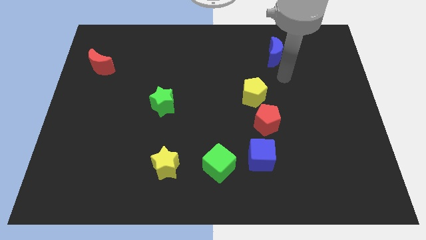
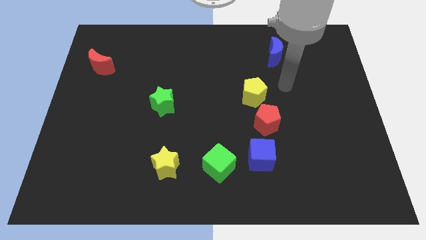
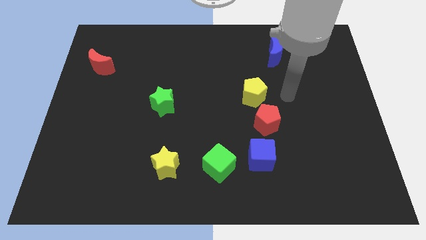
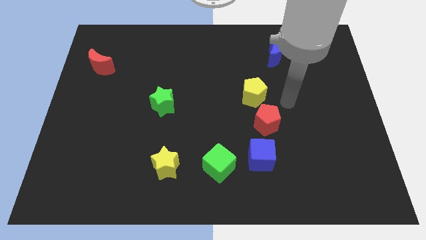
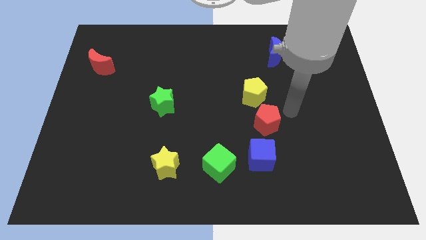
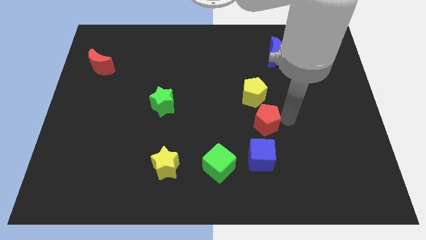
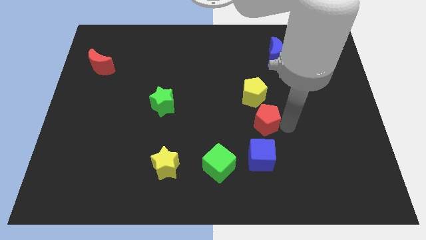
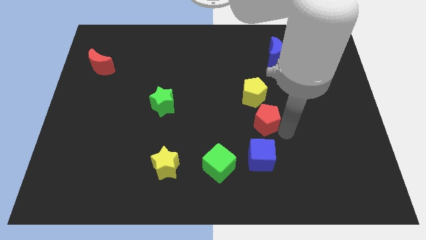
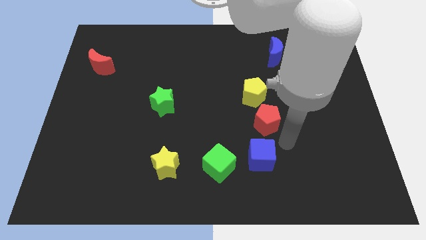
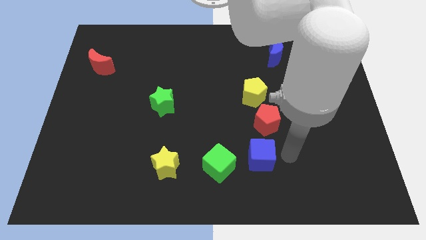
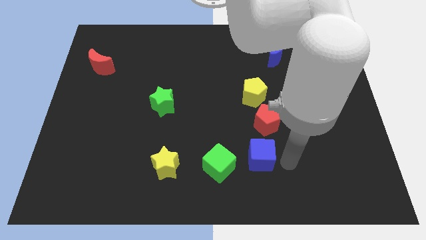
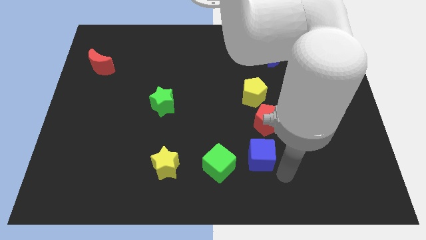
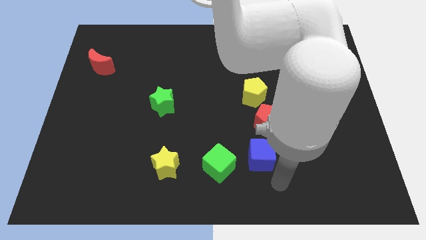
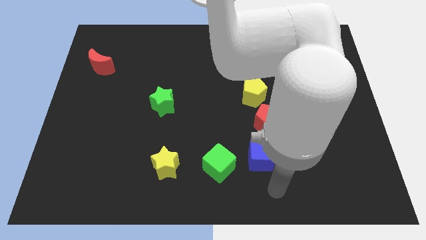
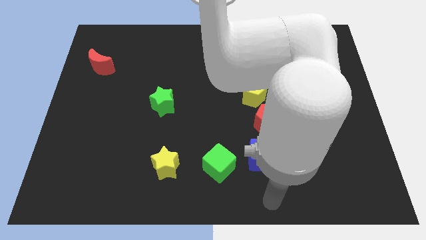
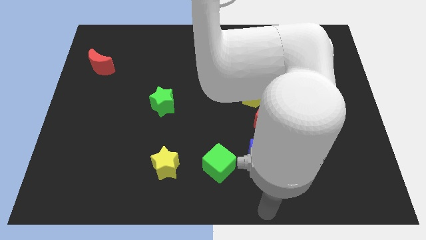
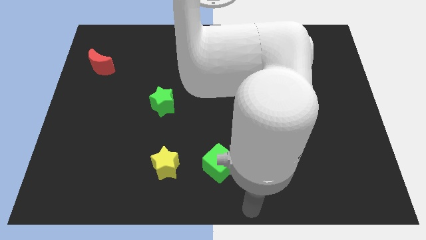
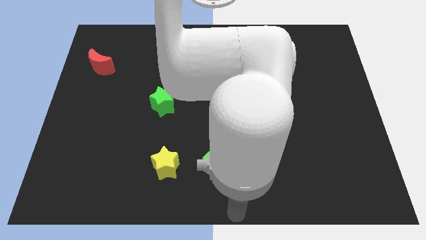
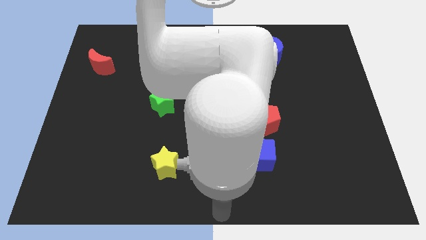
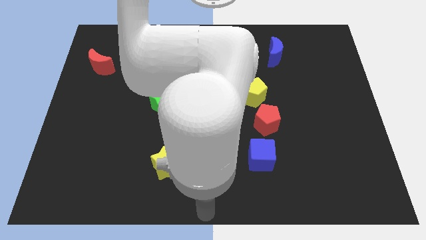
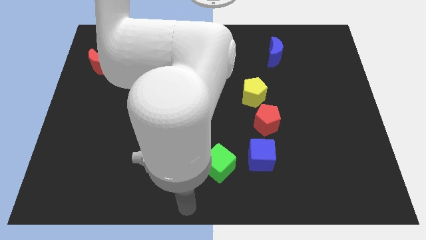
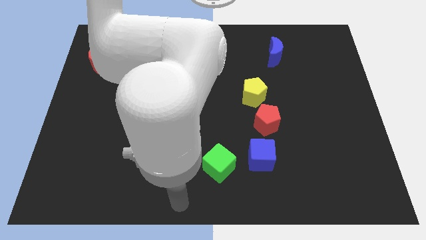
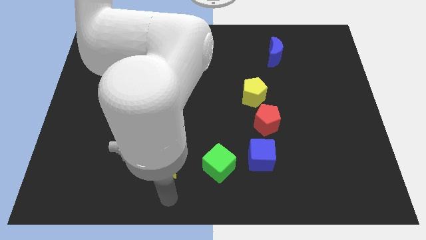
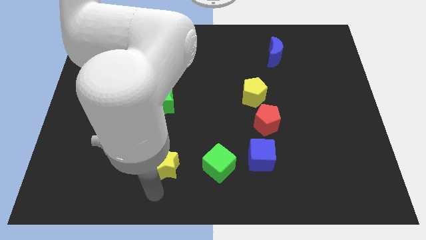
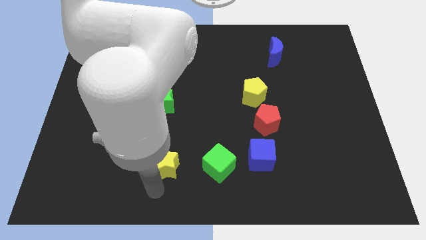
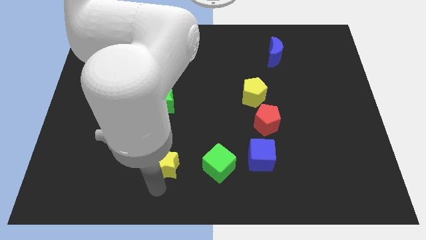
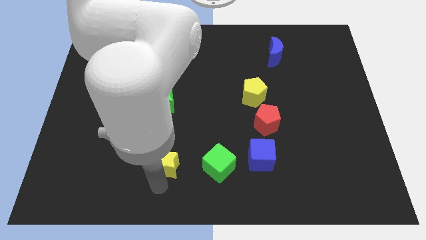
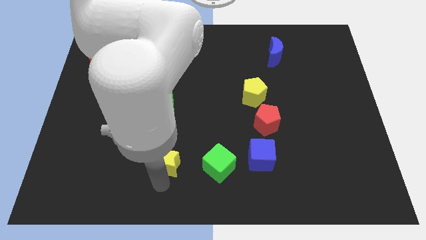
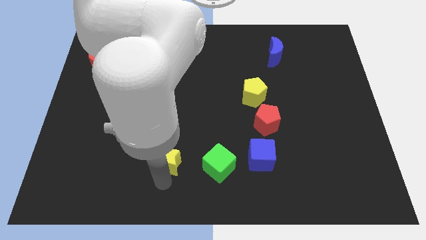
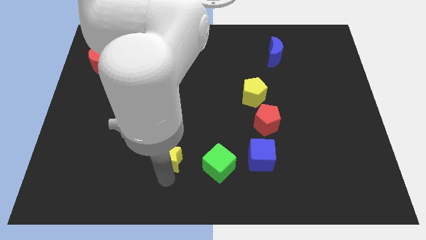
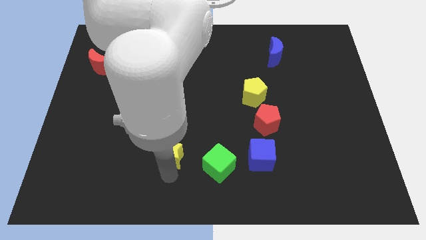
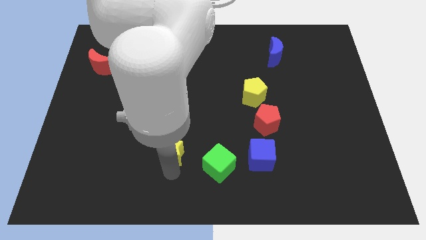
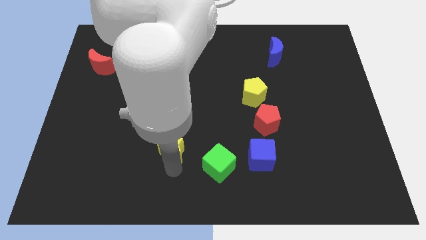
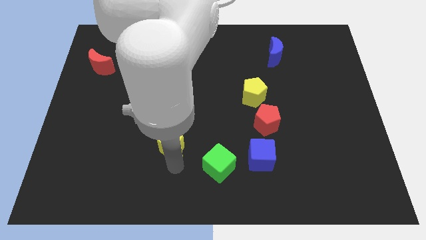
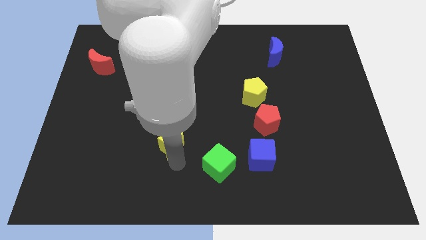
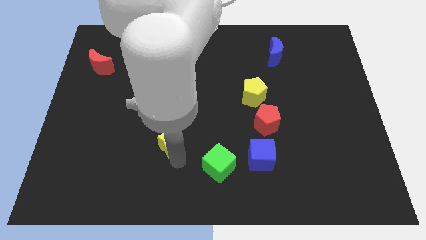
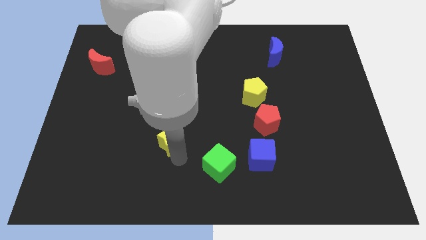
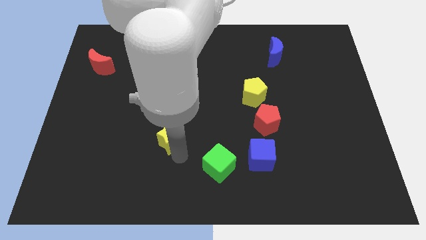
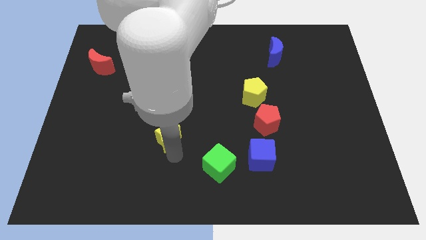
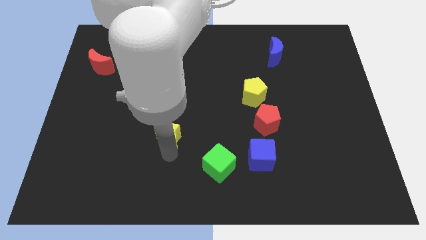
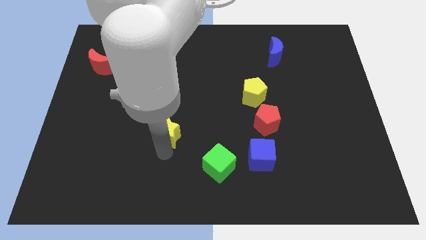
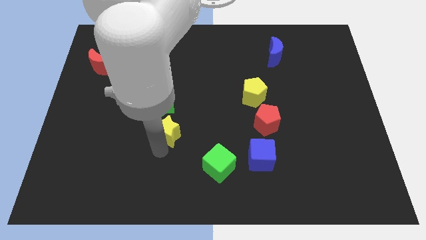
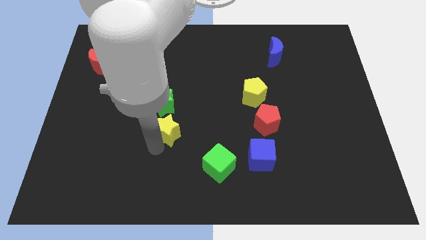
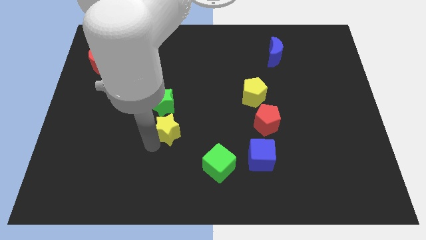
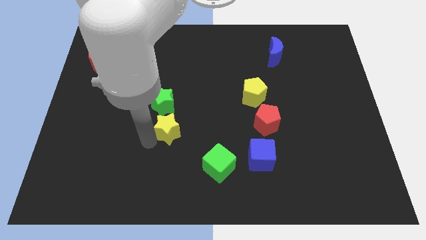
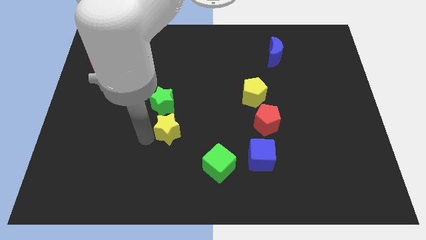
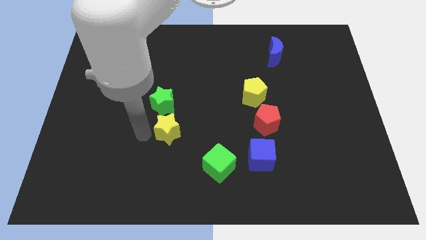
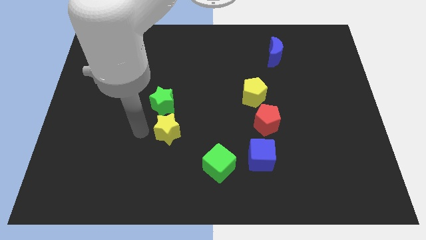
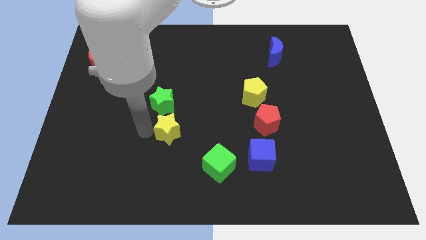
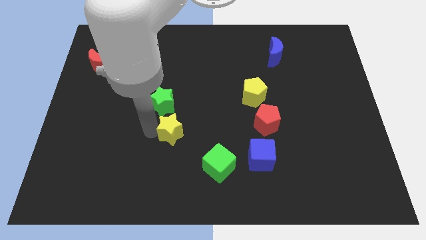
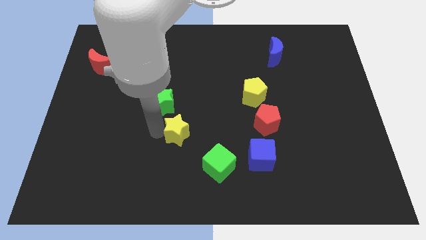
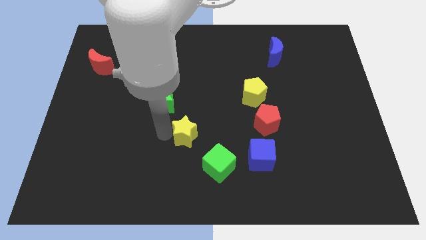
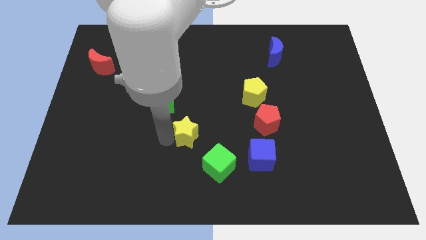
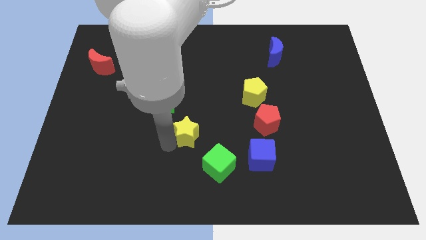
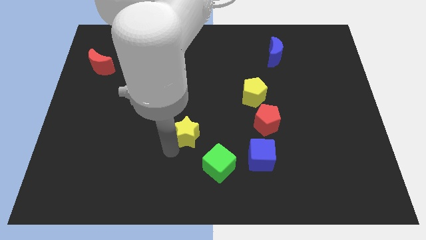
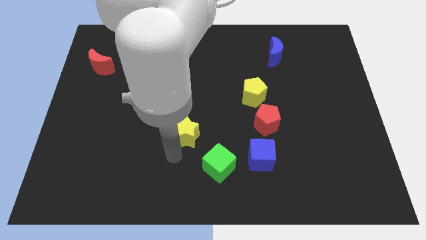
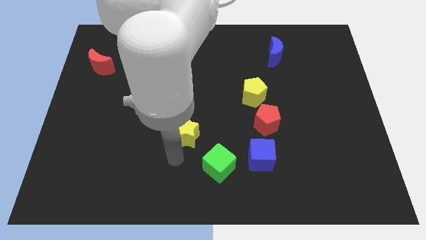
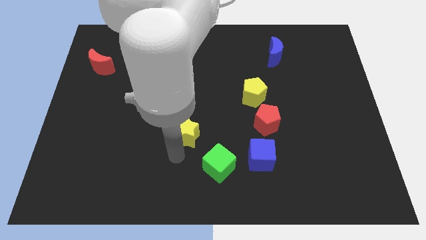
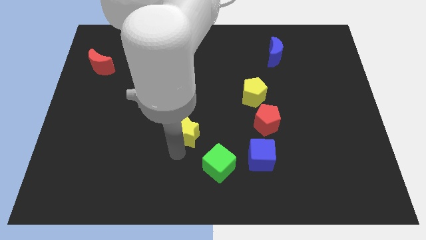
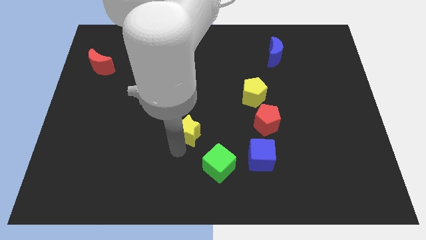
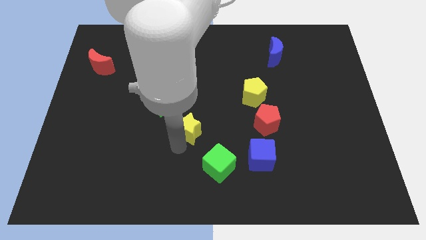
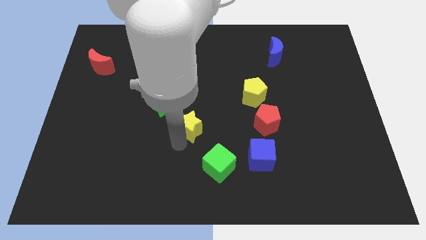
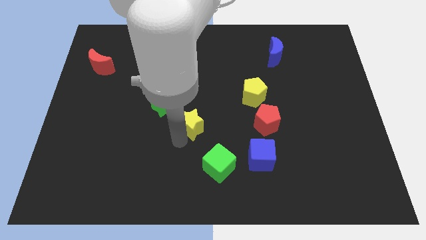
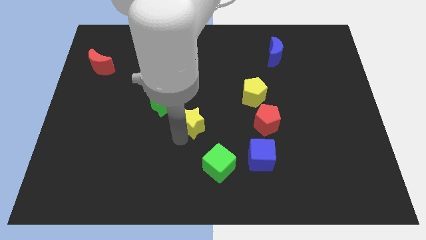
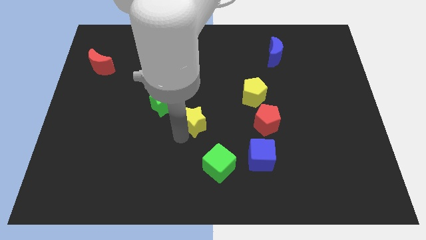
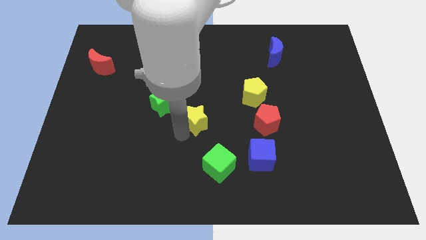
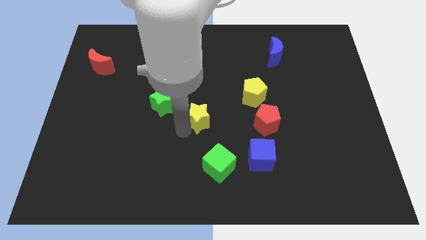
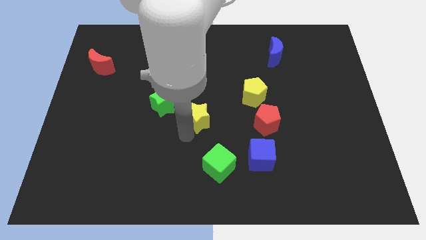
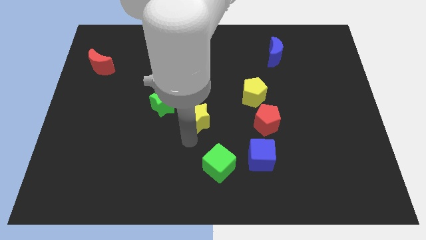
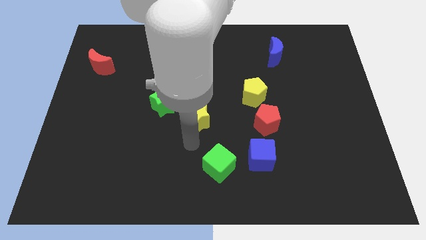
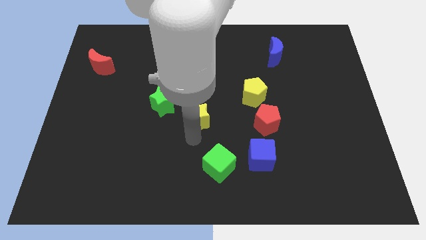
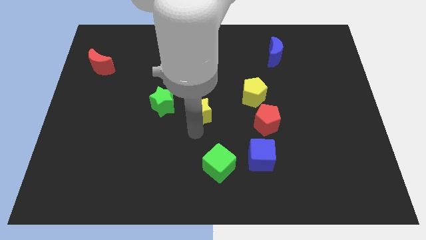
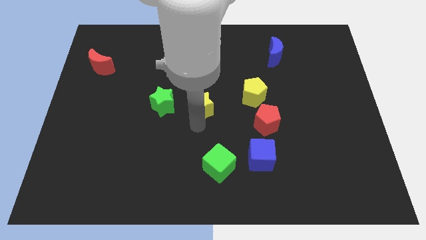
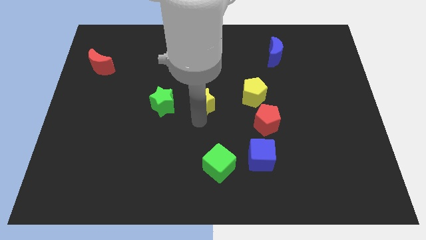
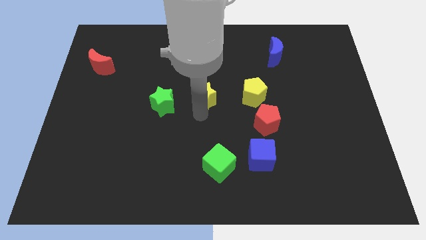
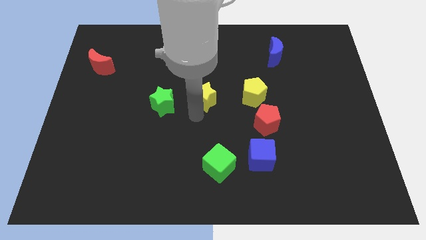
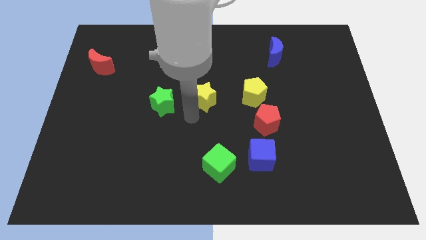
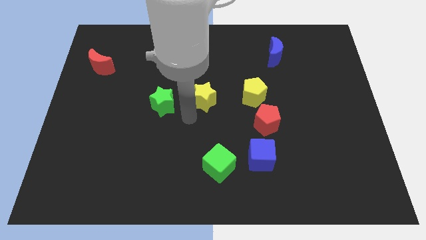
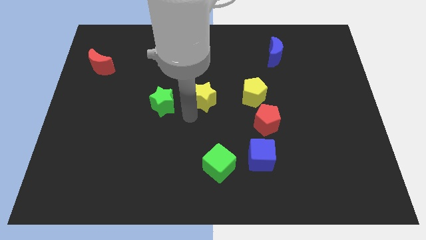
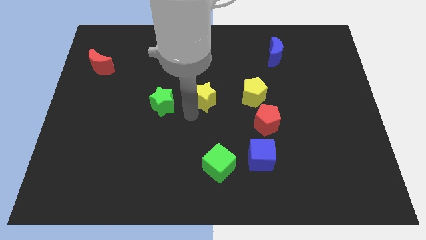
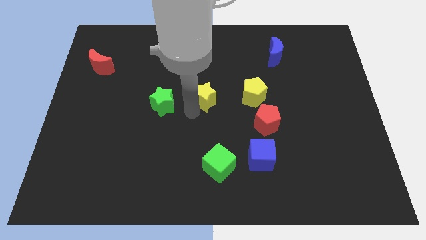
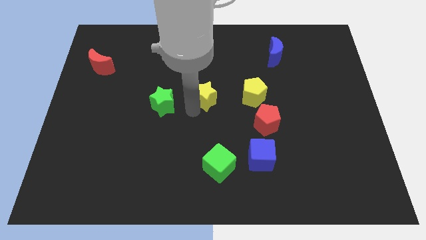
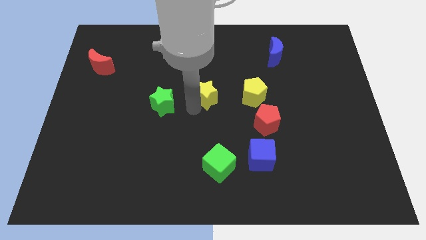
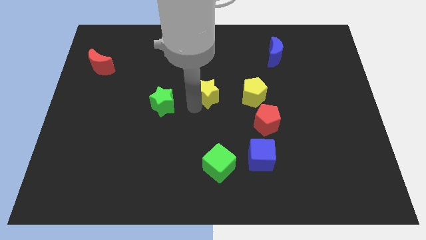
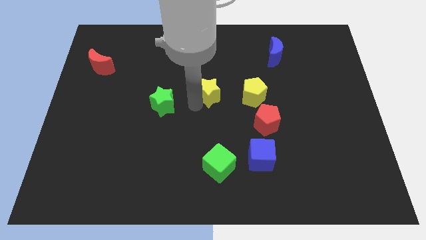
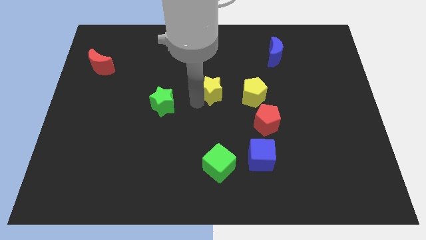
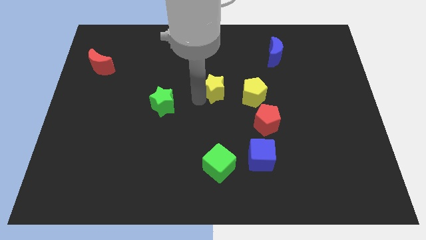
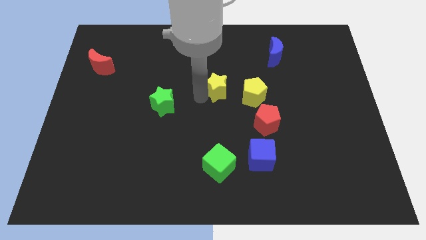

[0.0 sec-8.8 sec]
slide the yellow star upwards and then to the right
